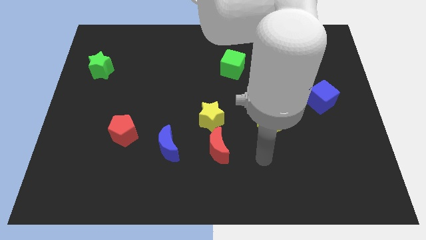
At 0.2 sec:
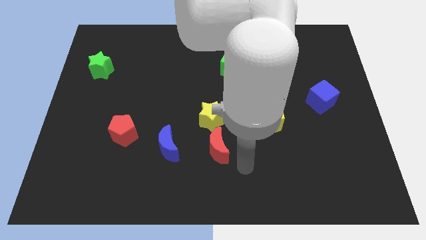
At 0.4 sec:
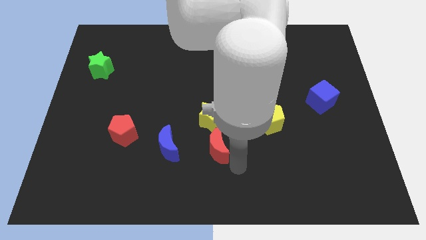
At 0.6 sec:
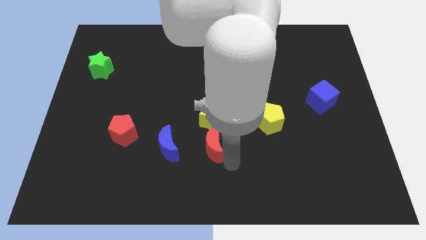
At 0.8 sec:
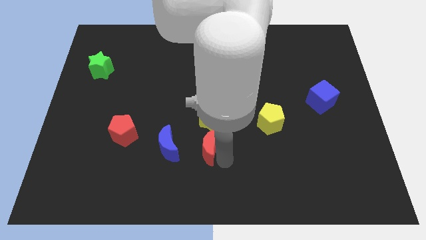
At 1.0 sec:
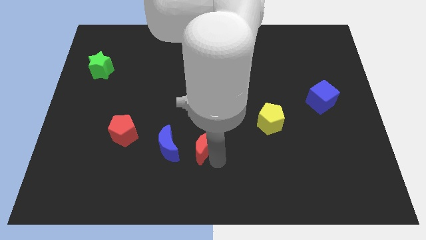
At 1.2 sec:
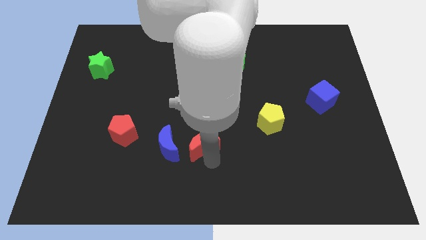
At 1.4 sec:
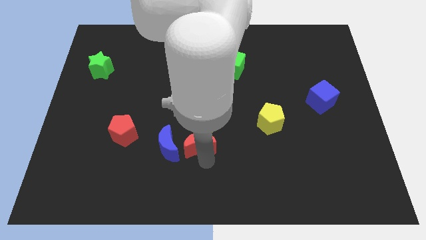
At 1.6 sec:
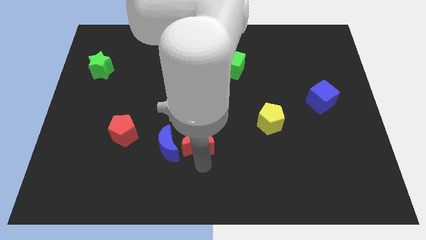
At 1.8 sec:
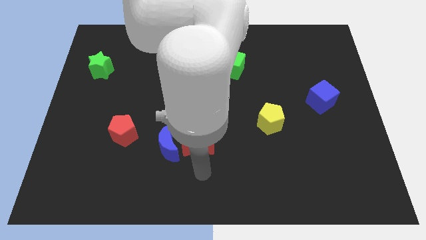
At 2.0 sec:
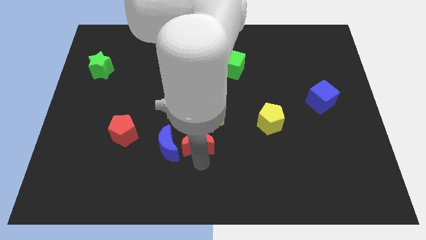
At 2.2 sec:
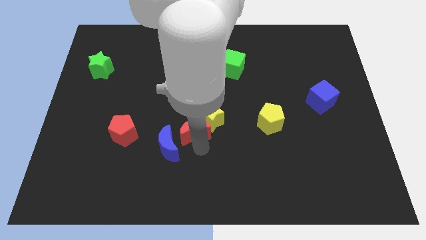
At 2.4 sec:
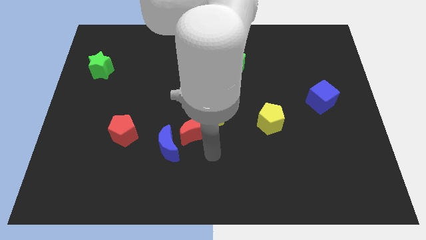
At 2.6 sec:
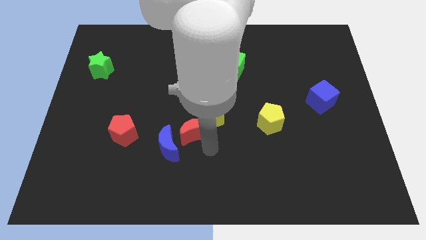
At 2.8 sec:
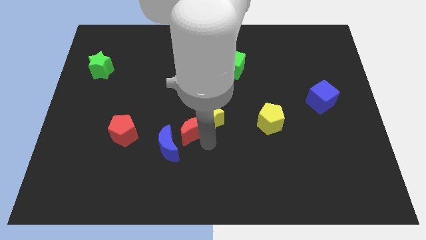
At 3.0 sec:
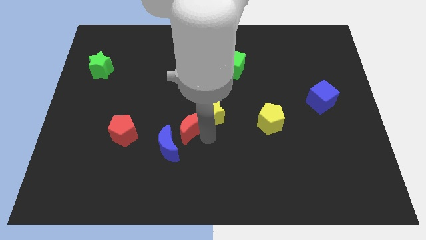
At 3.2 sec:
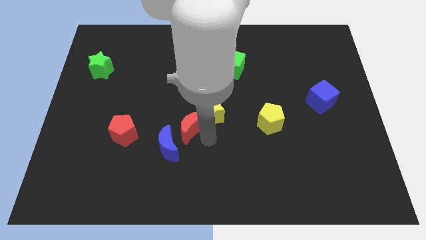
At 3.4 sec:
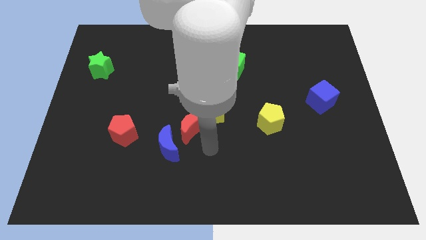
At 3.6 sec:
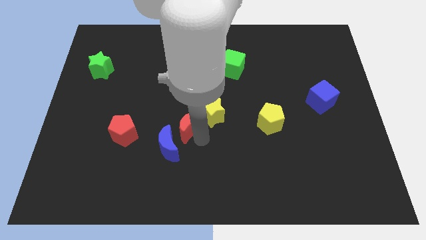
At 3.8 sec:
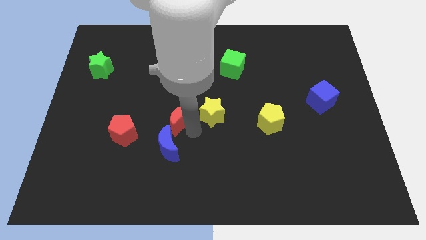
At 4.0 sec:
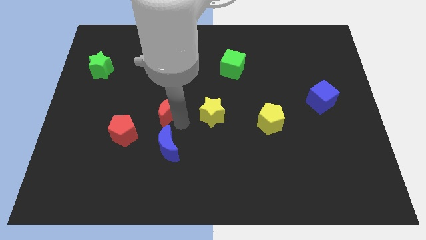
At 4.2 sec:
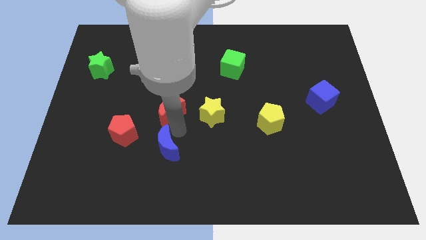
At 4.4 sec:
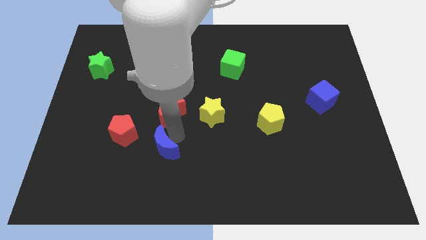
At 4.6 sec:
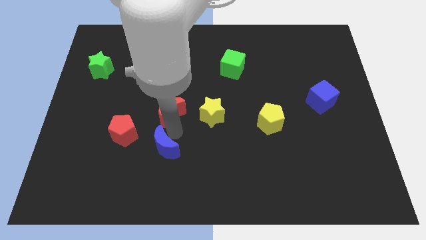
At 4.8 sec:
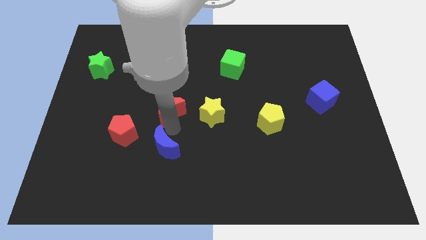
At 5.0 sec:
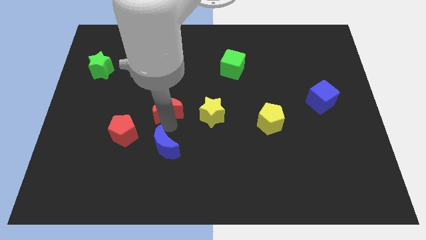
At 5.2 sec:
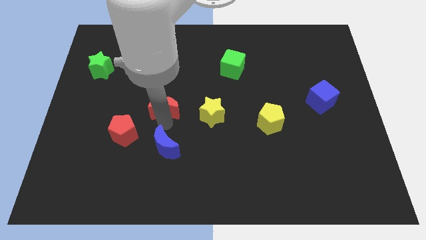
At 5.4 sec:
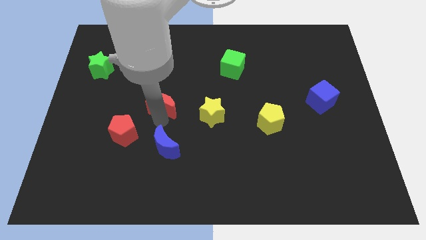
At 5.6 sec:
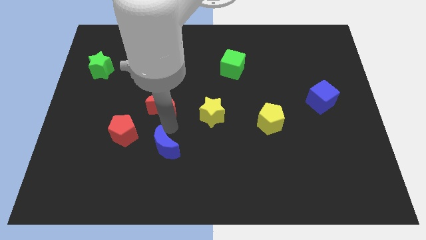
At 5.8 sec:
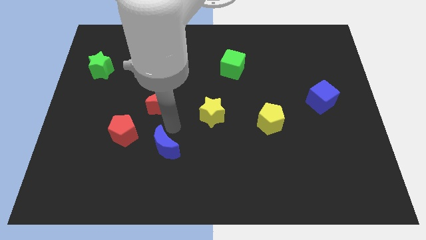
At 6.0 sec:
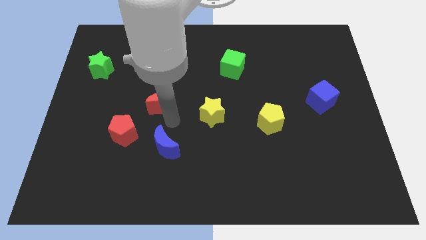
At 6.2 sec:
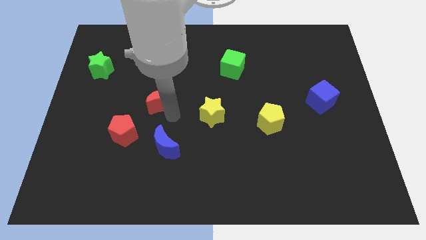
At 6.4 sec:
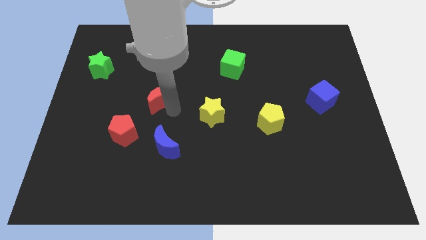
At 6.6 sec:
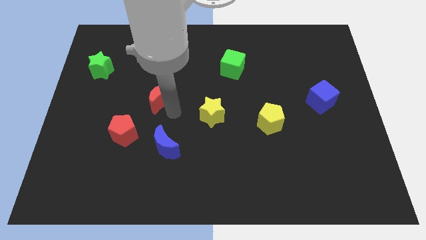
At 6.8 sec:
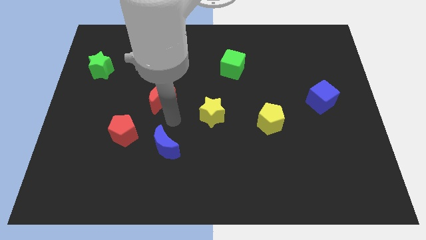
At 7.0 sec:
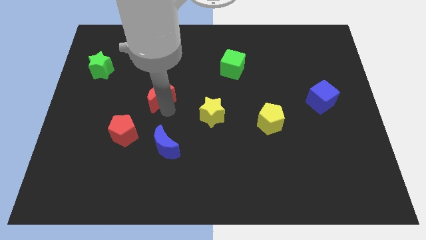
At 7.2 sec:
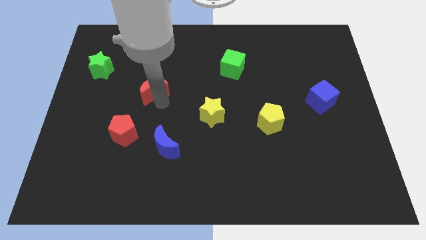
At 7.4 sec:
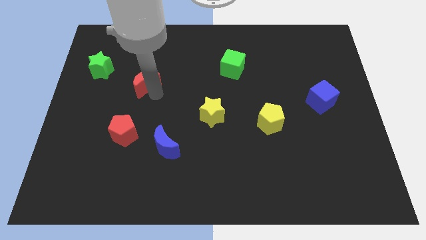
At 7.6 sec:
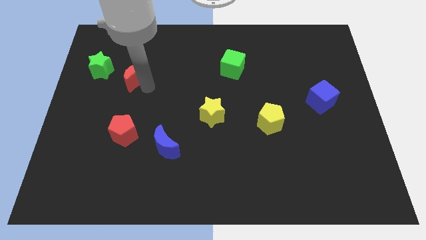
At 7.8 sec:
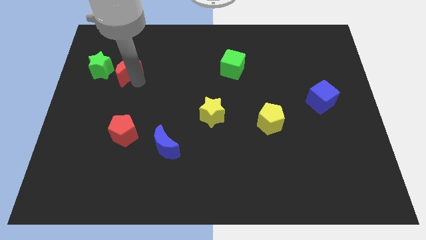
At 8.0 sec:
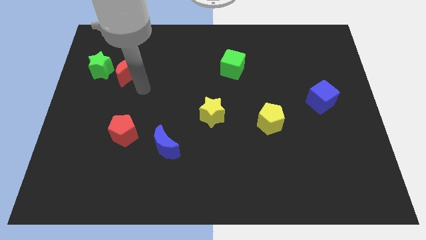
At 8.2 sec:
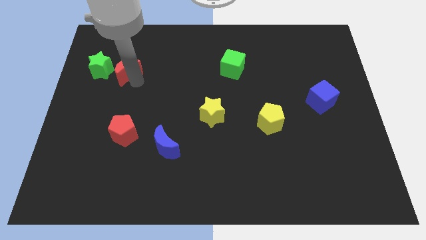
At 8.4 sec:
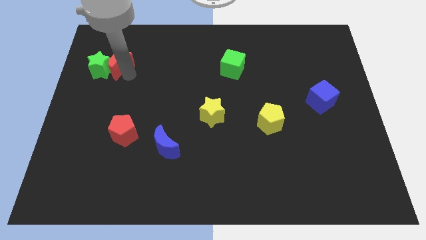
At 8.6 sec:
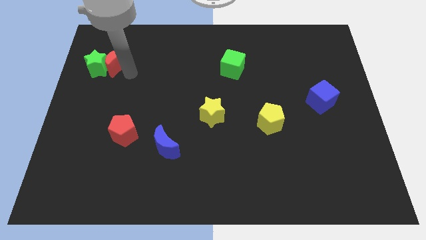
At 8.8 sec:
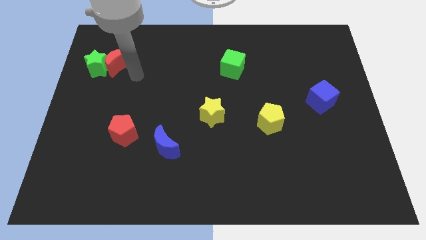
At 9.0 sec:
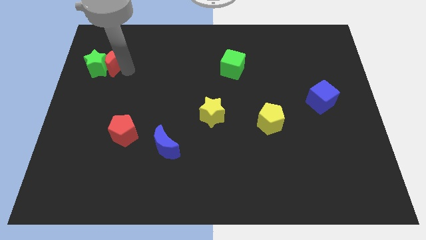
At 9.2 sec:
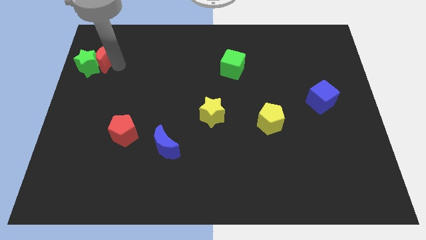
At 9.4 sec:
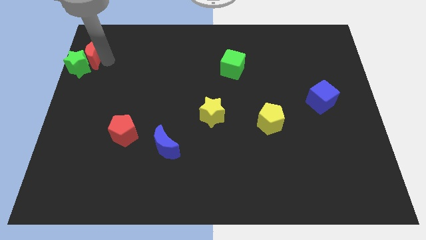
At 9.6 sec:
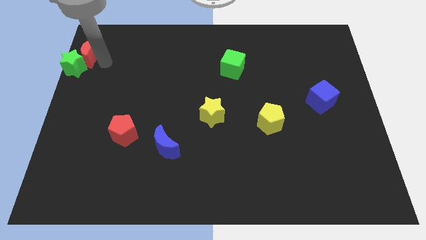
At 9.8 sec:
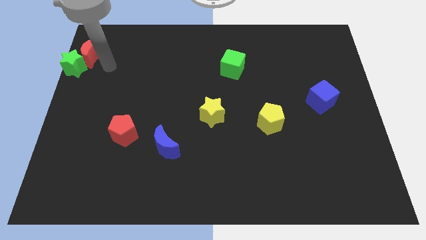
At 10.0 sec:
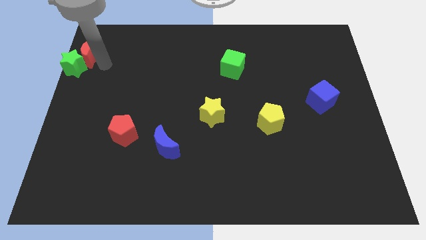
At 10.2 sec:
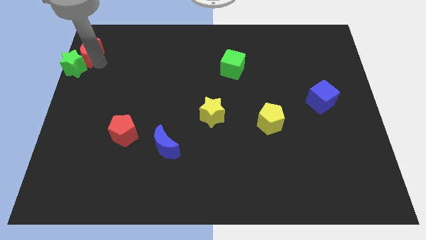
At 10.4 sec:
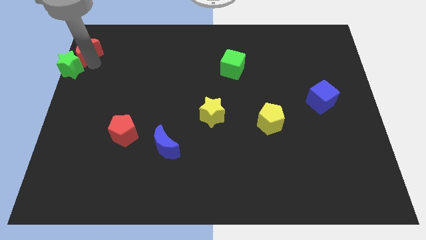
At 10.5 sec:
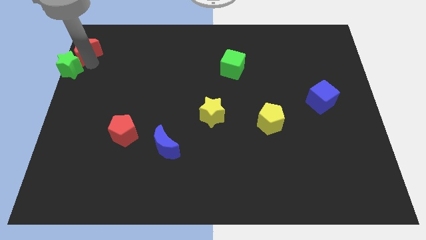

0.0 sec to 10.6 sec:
push the red moon to the upper left corner

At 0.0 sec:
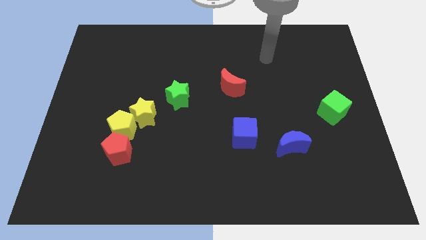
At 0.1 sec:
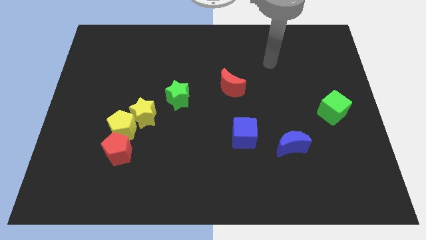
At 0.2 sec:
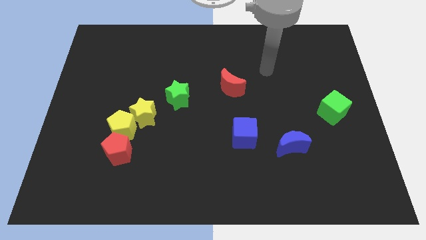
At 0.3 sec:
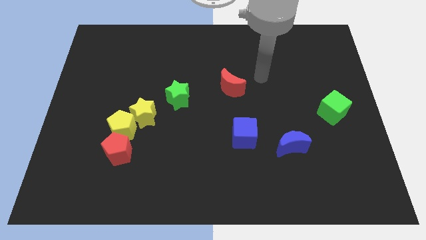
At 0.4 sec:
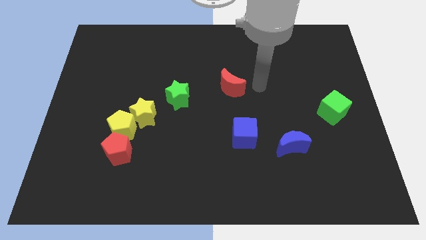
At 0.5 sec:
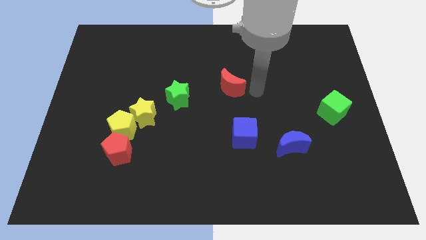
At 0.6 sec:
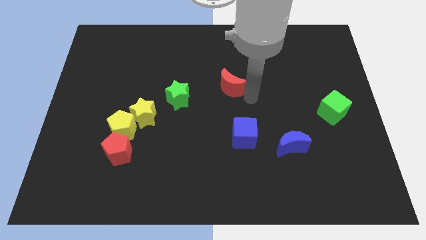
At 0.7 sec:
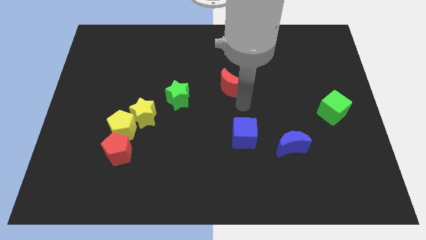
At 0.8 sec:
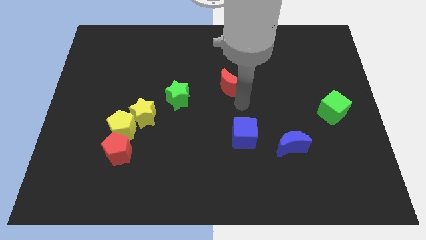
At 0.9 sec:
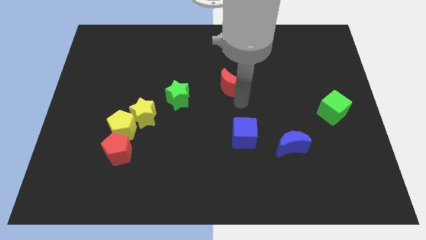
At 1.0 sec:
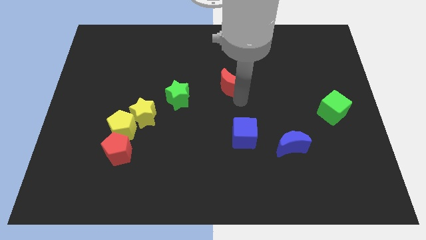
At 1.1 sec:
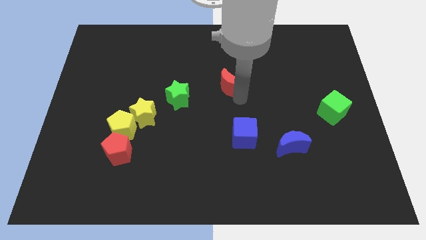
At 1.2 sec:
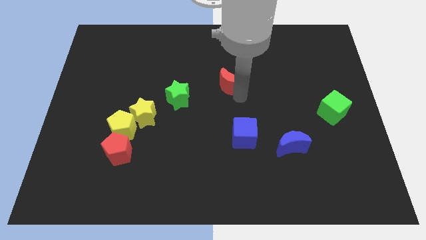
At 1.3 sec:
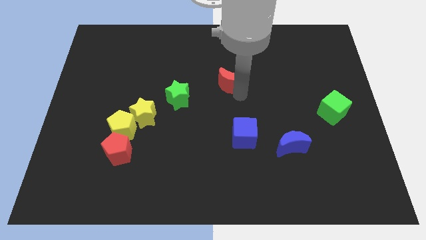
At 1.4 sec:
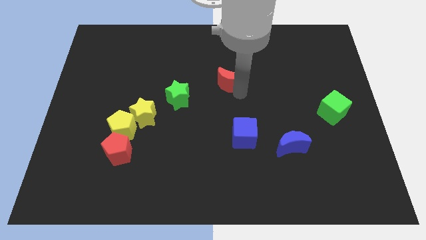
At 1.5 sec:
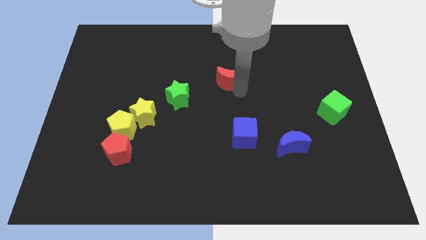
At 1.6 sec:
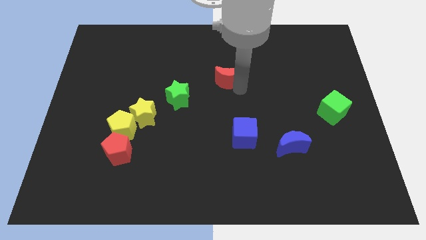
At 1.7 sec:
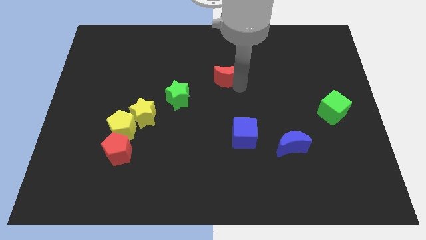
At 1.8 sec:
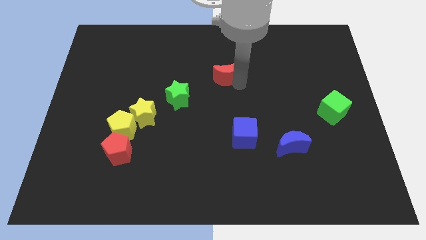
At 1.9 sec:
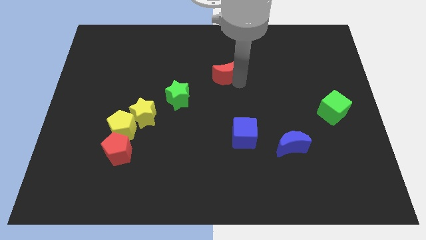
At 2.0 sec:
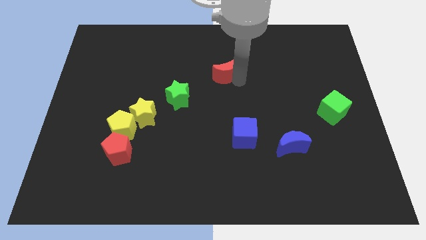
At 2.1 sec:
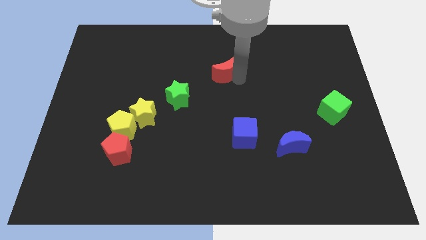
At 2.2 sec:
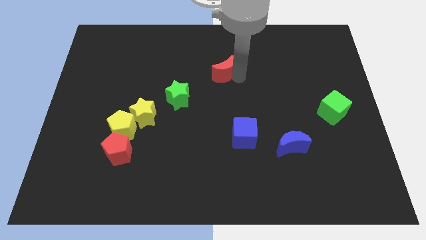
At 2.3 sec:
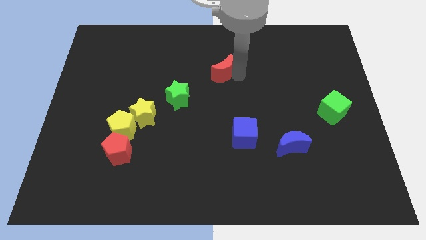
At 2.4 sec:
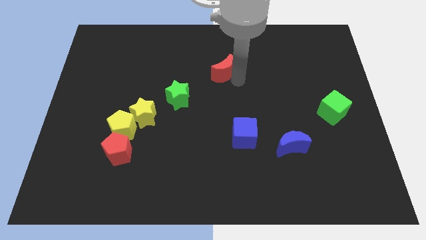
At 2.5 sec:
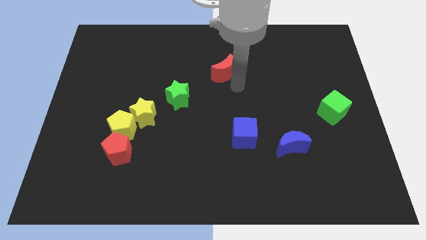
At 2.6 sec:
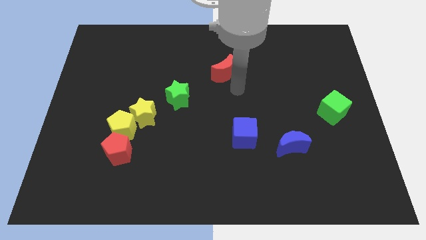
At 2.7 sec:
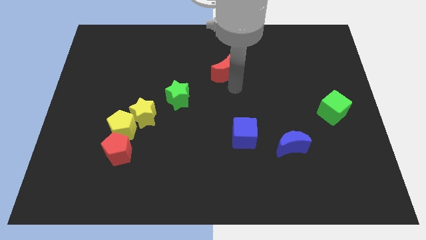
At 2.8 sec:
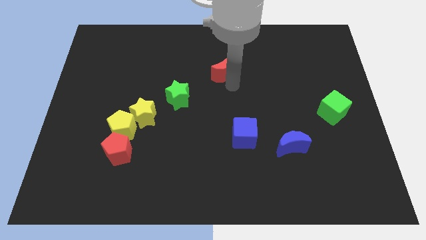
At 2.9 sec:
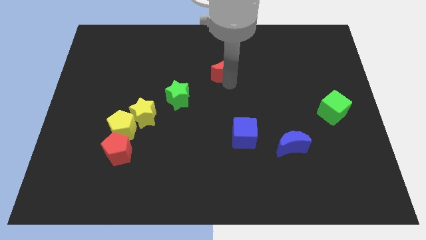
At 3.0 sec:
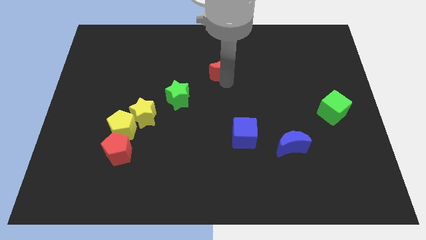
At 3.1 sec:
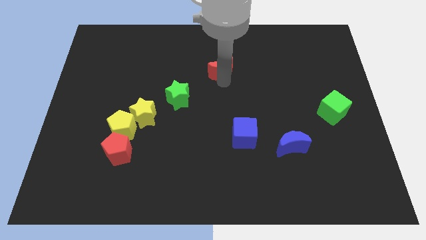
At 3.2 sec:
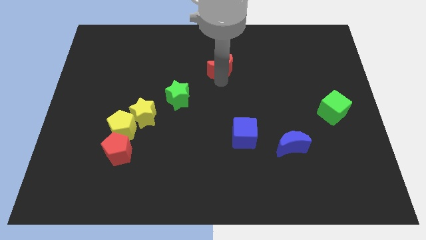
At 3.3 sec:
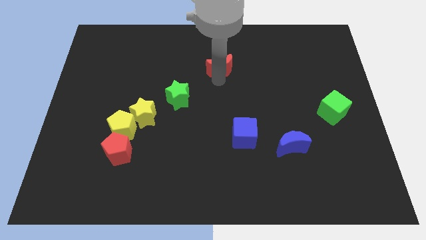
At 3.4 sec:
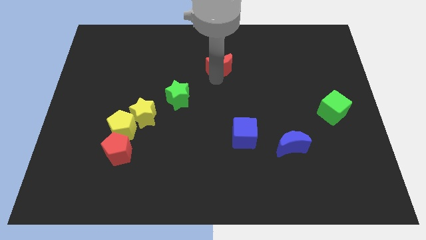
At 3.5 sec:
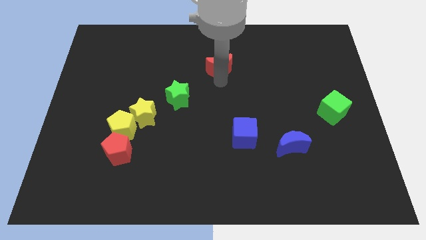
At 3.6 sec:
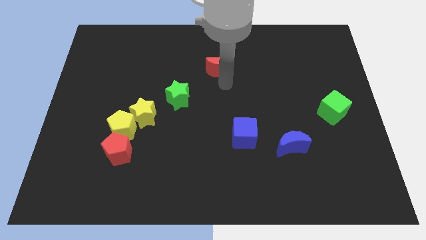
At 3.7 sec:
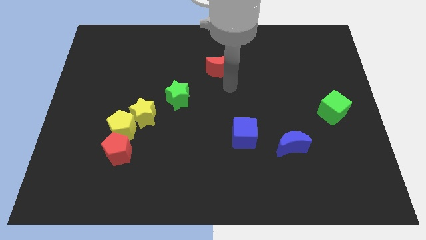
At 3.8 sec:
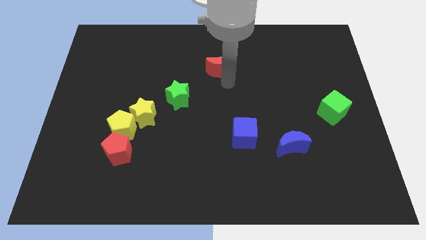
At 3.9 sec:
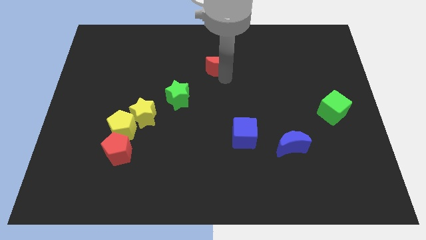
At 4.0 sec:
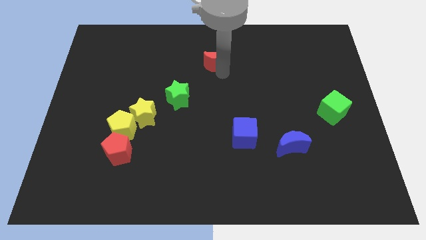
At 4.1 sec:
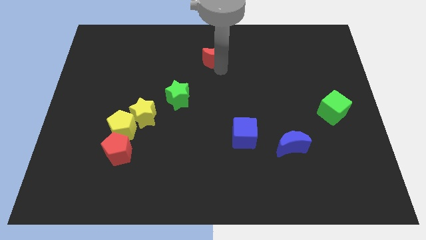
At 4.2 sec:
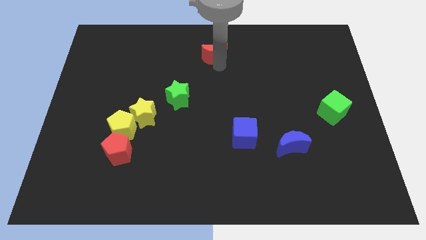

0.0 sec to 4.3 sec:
put the red moon to the towards your base
